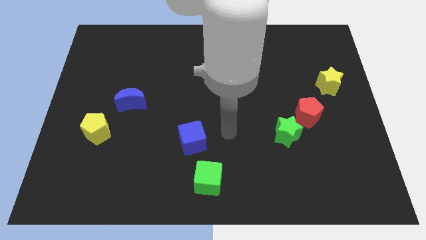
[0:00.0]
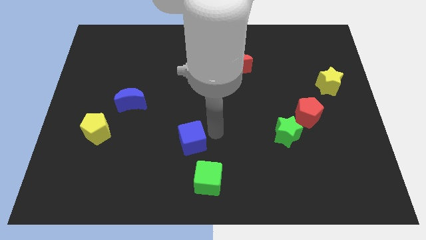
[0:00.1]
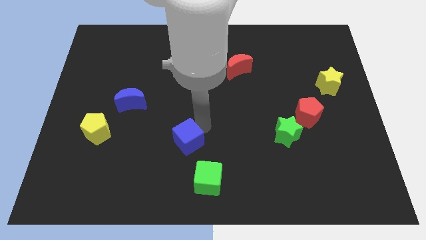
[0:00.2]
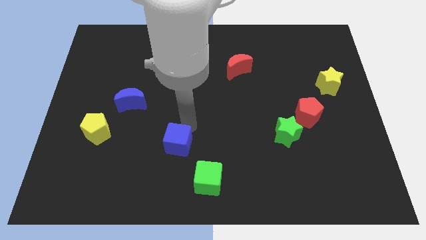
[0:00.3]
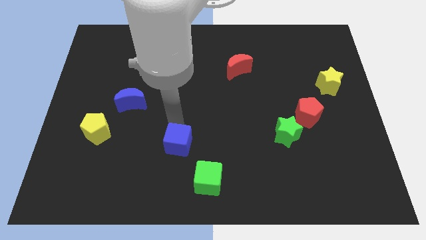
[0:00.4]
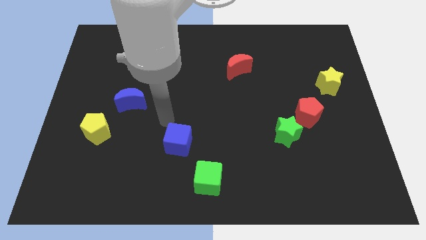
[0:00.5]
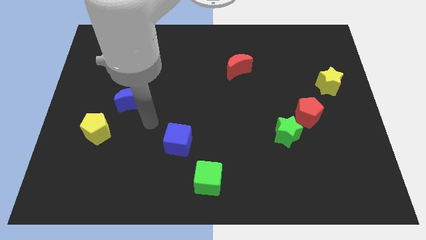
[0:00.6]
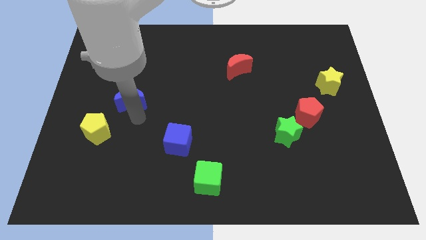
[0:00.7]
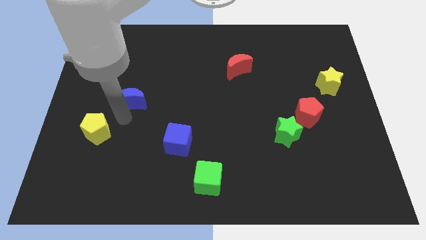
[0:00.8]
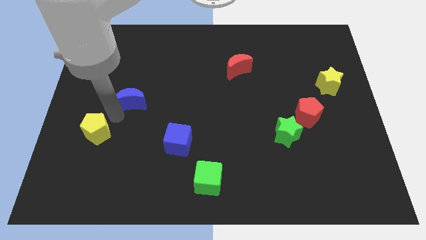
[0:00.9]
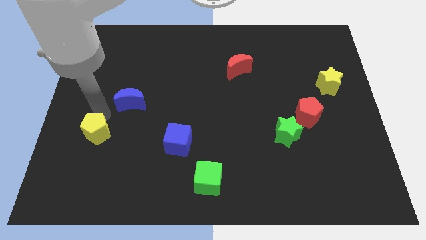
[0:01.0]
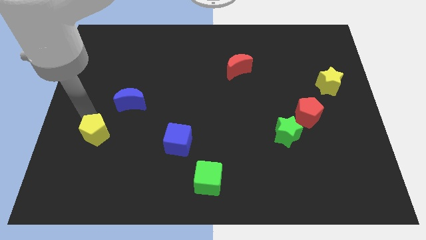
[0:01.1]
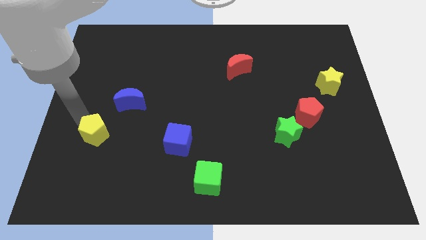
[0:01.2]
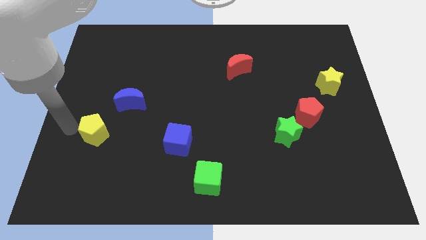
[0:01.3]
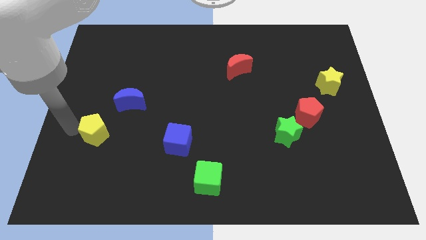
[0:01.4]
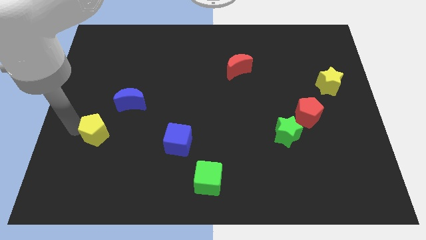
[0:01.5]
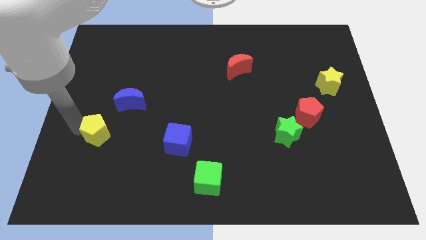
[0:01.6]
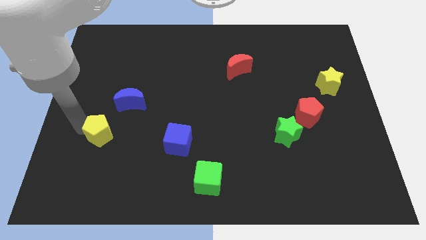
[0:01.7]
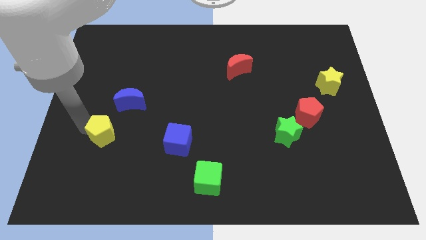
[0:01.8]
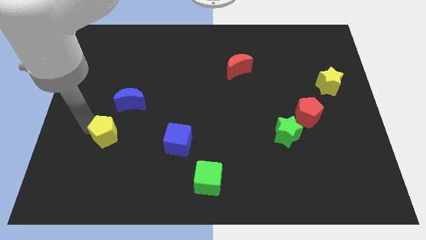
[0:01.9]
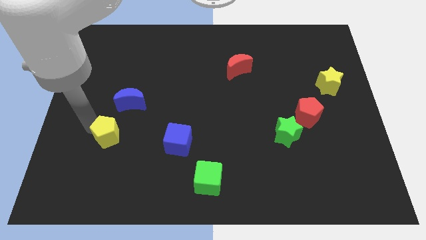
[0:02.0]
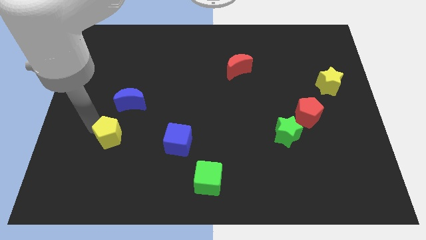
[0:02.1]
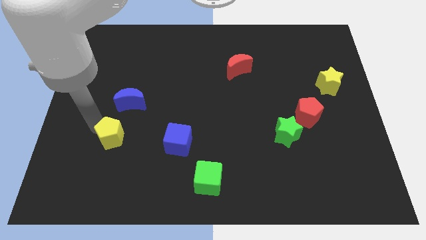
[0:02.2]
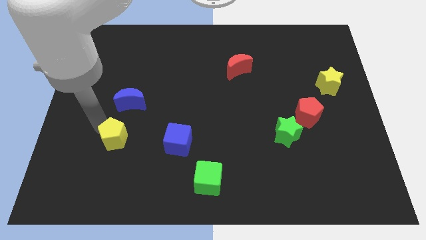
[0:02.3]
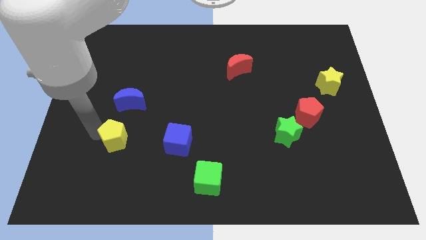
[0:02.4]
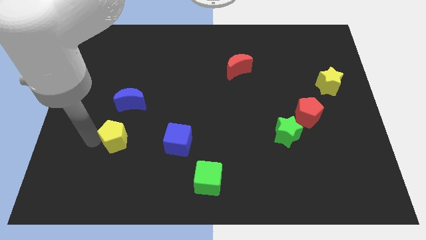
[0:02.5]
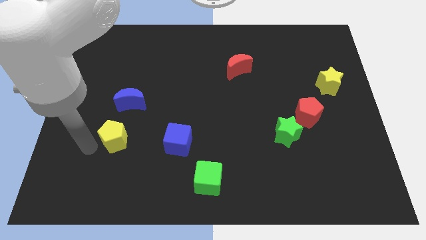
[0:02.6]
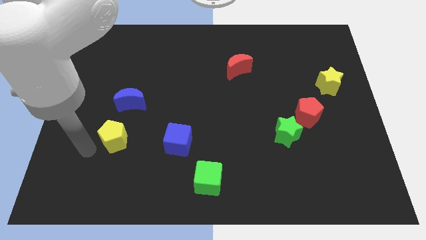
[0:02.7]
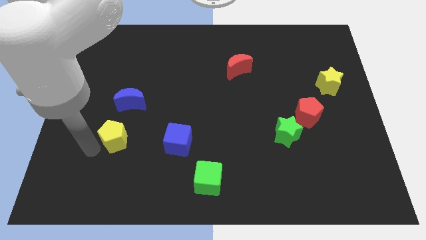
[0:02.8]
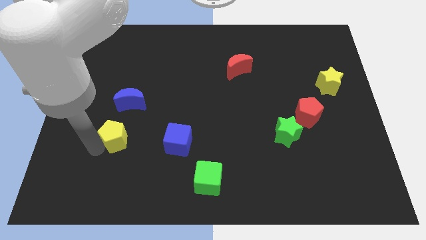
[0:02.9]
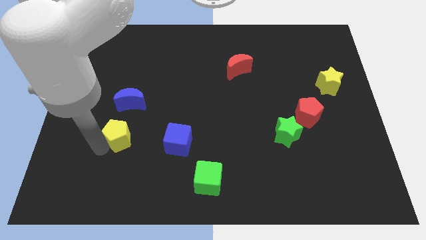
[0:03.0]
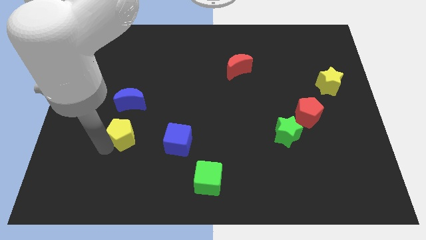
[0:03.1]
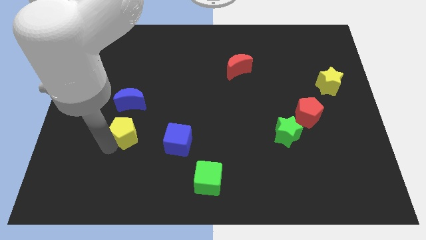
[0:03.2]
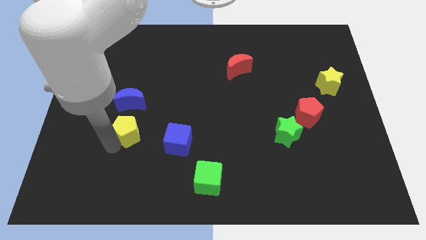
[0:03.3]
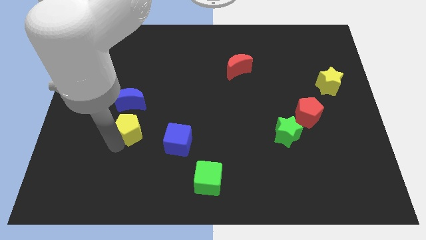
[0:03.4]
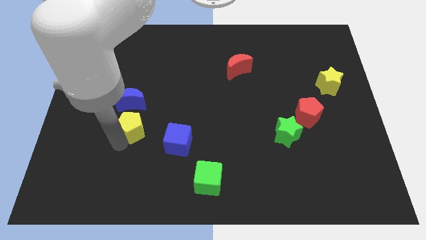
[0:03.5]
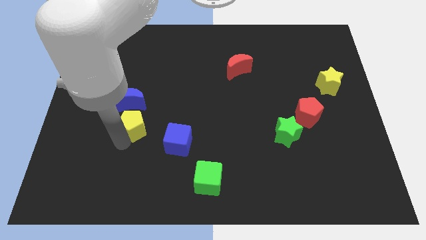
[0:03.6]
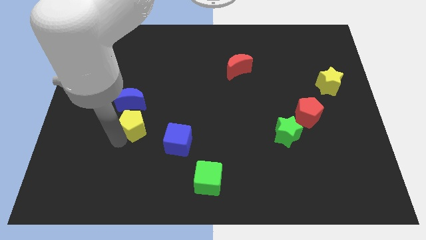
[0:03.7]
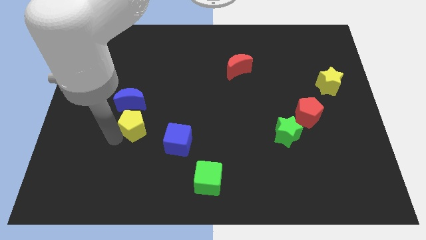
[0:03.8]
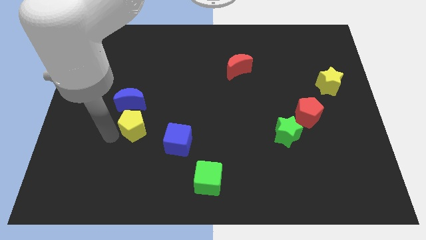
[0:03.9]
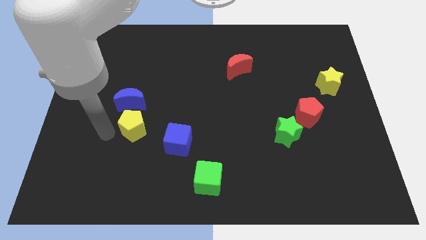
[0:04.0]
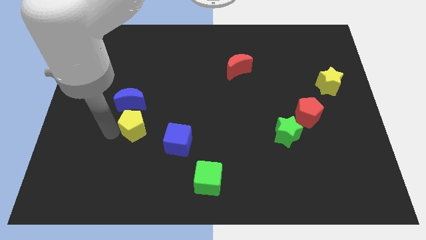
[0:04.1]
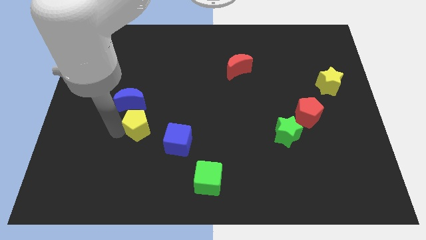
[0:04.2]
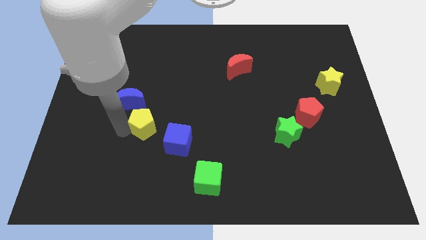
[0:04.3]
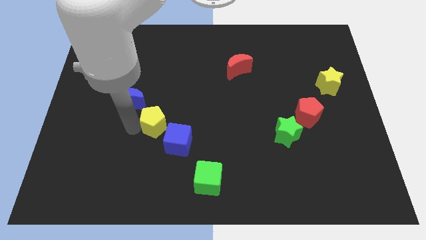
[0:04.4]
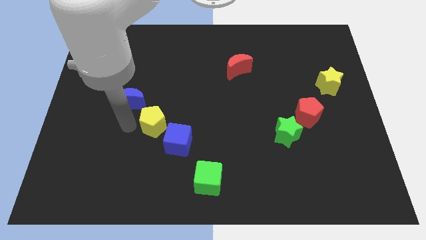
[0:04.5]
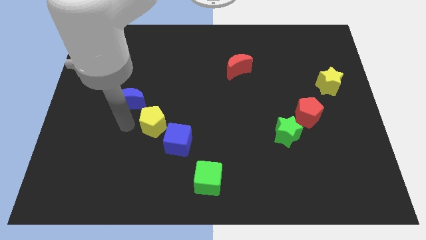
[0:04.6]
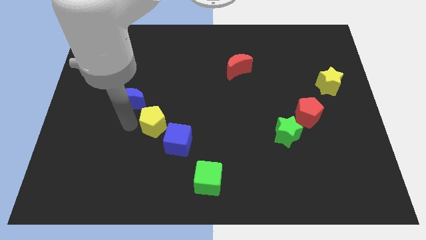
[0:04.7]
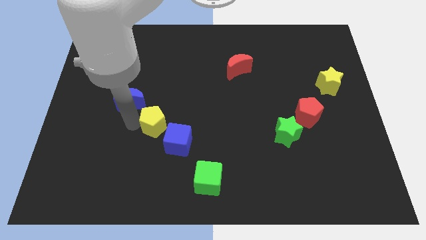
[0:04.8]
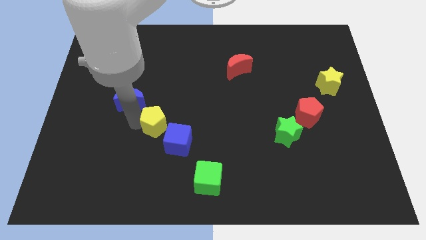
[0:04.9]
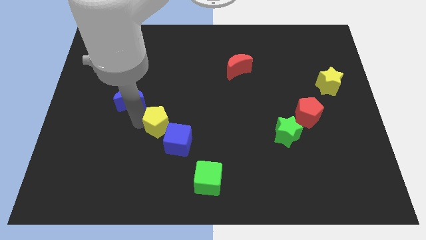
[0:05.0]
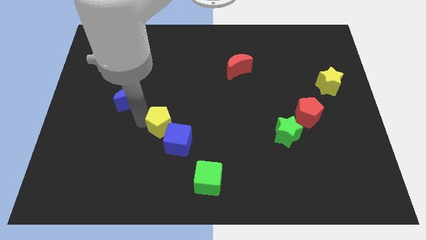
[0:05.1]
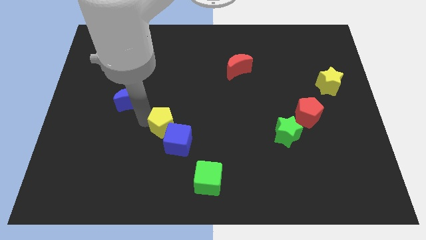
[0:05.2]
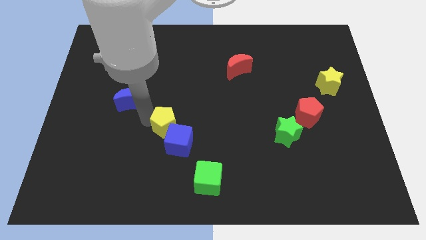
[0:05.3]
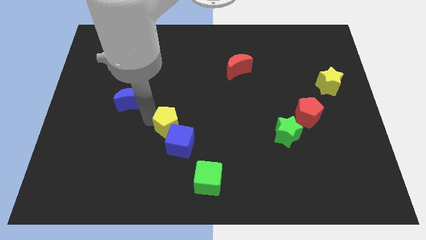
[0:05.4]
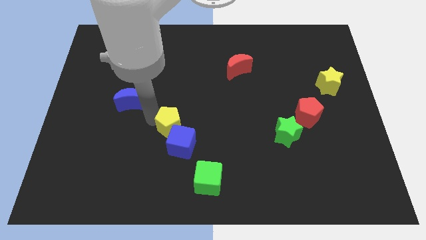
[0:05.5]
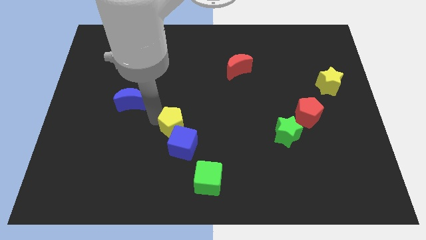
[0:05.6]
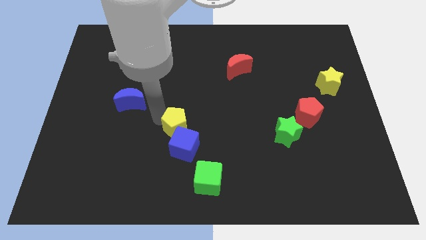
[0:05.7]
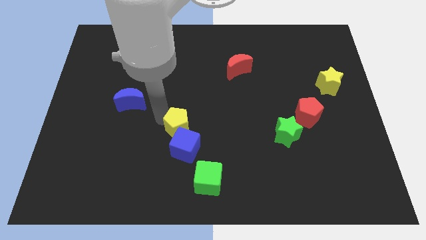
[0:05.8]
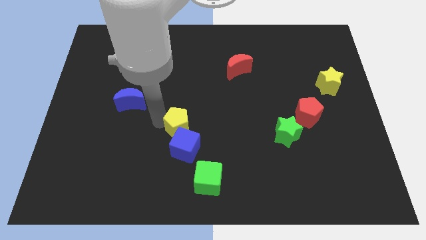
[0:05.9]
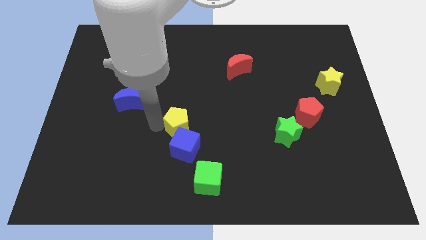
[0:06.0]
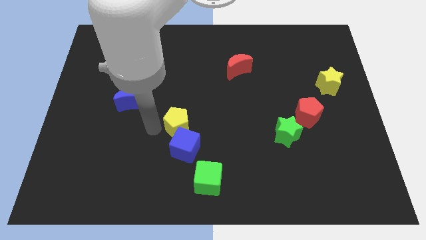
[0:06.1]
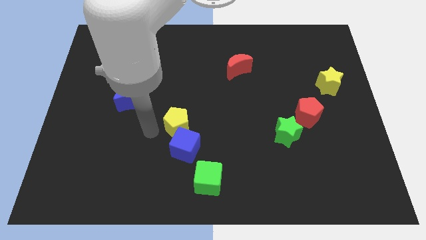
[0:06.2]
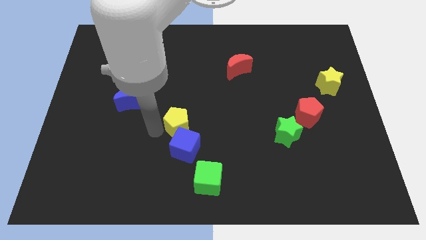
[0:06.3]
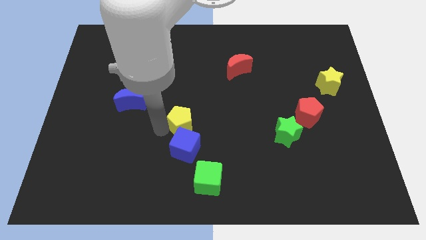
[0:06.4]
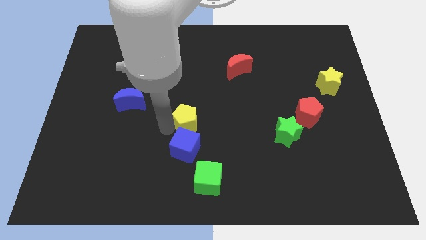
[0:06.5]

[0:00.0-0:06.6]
move the yellow pentagon to the top right side of the blue cube

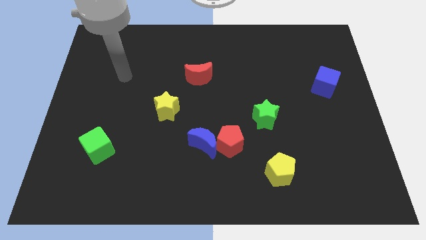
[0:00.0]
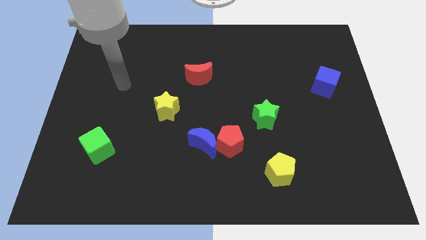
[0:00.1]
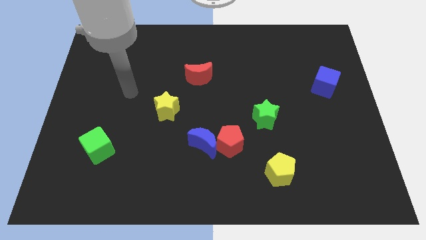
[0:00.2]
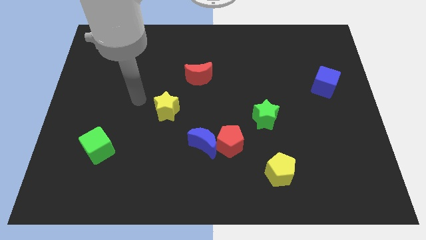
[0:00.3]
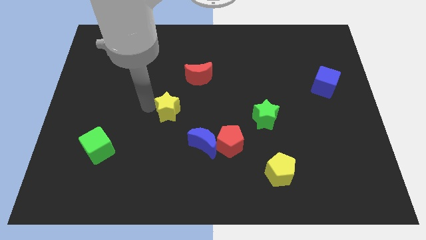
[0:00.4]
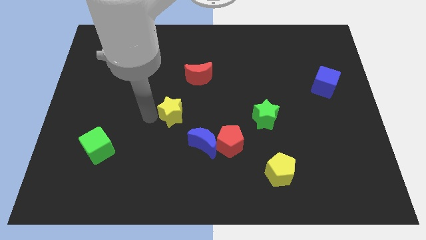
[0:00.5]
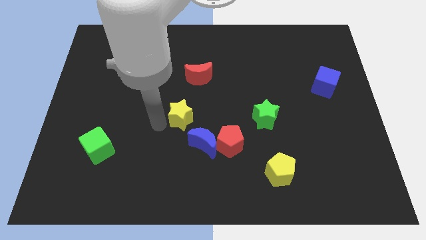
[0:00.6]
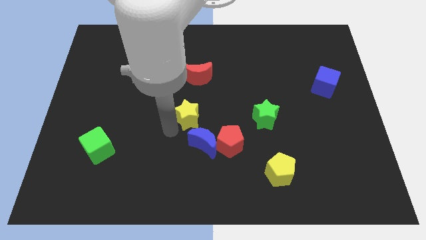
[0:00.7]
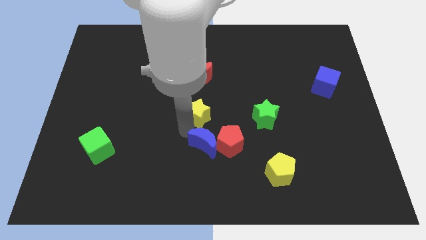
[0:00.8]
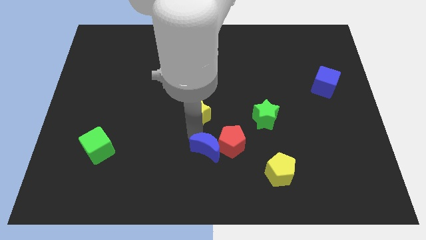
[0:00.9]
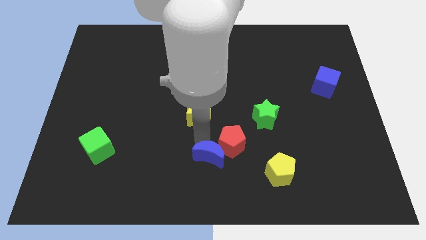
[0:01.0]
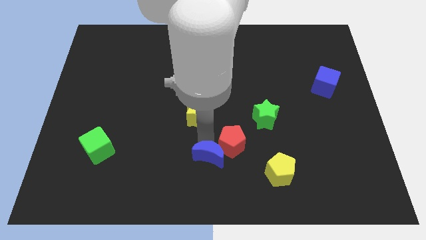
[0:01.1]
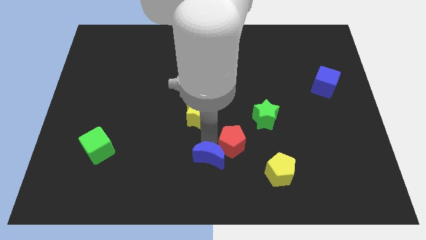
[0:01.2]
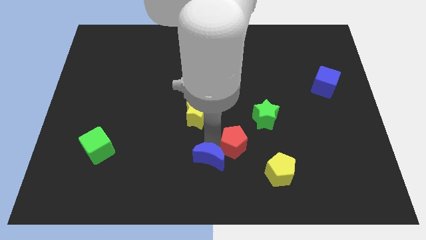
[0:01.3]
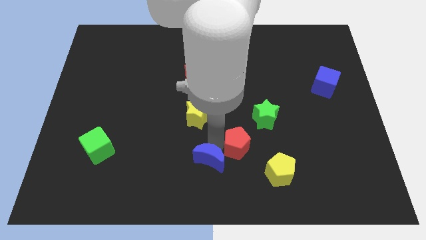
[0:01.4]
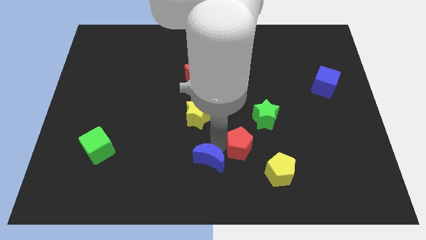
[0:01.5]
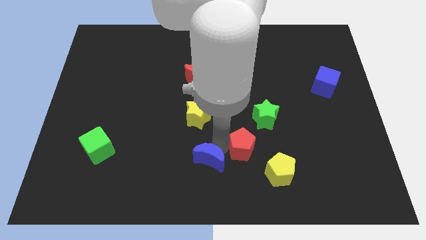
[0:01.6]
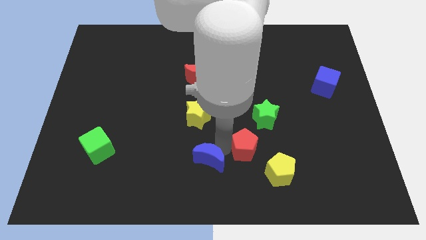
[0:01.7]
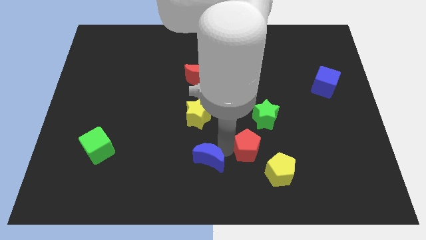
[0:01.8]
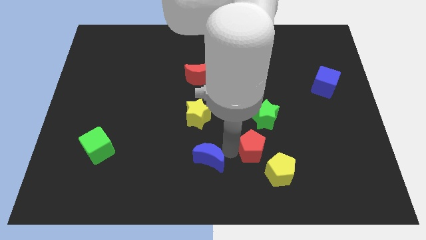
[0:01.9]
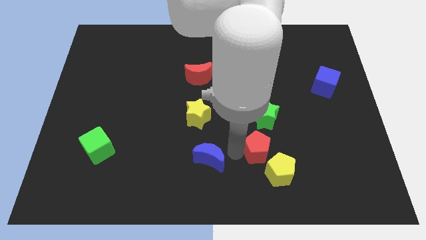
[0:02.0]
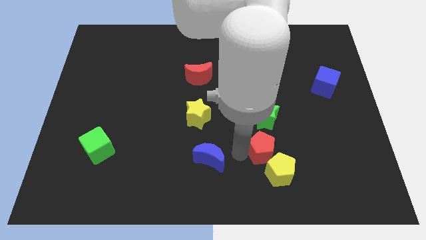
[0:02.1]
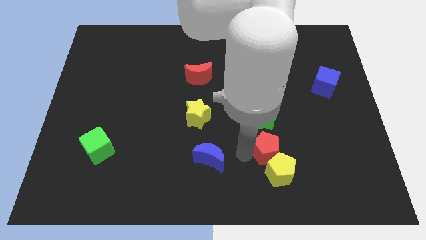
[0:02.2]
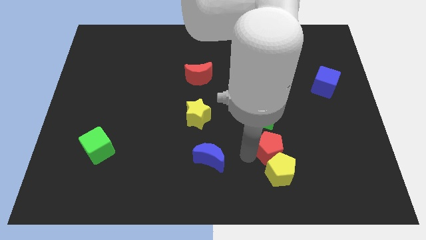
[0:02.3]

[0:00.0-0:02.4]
push the red pentagon diagonally up and to the right of the yellow pentagon
